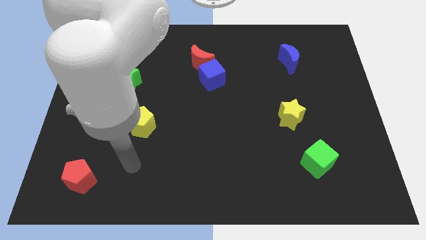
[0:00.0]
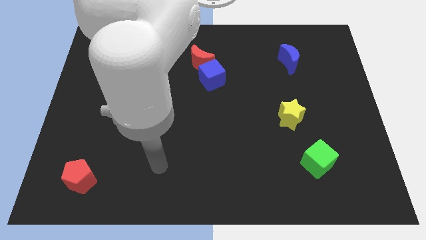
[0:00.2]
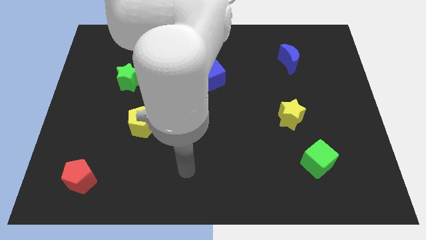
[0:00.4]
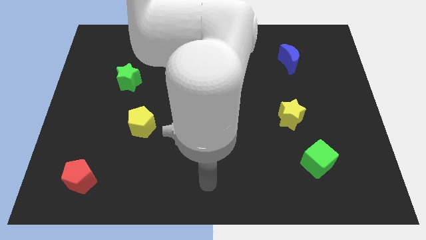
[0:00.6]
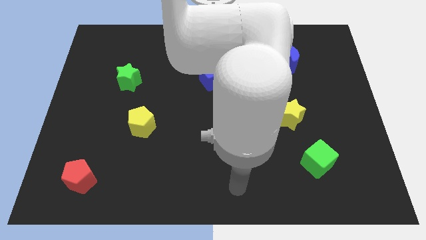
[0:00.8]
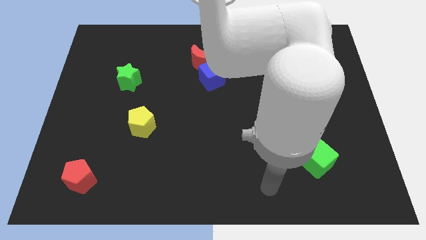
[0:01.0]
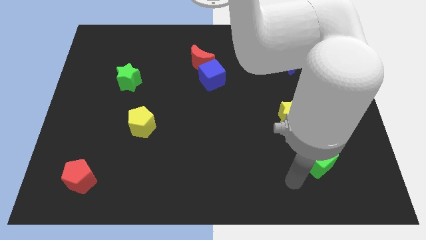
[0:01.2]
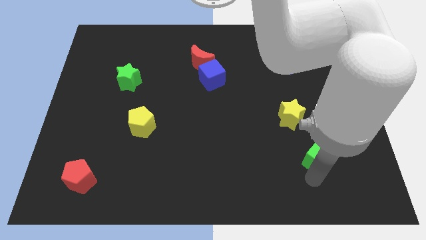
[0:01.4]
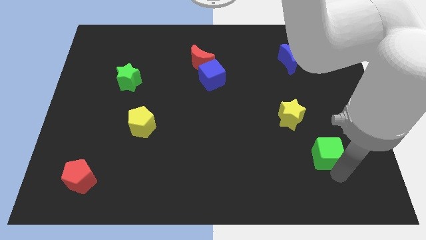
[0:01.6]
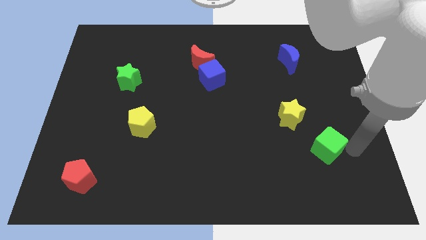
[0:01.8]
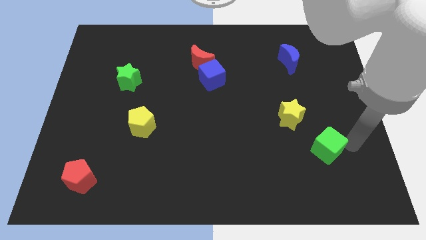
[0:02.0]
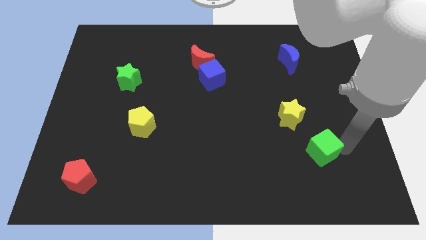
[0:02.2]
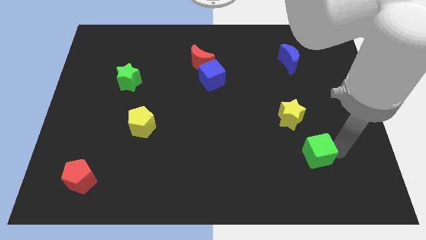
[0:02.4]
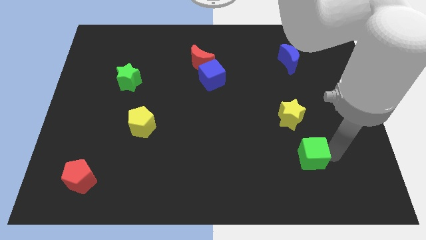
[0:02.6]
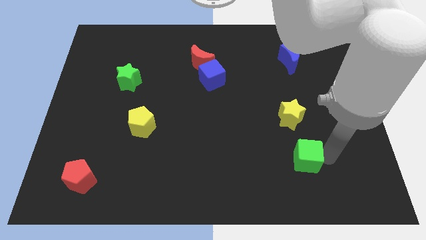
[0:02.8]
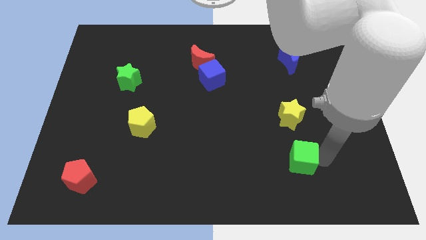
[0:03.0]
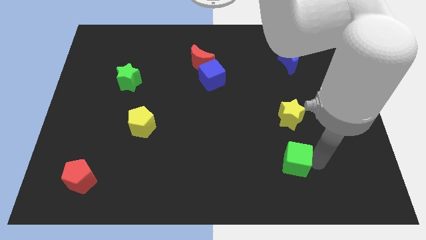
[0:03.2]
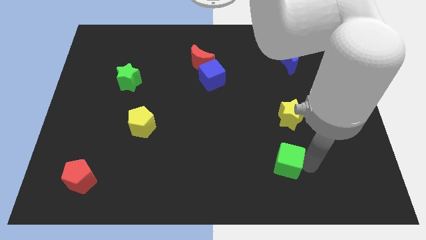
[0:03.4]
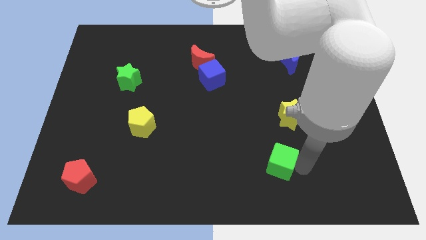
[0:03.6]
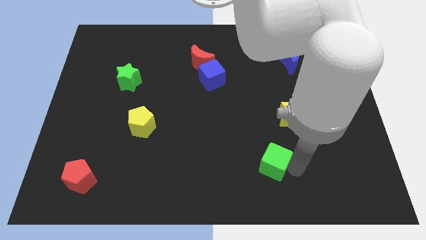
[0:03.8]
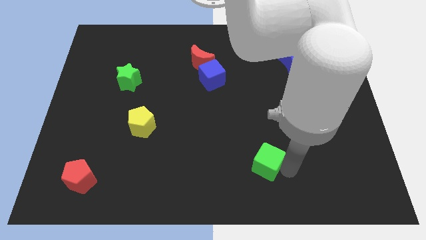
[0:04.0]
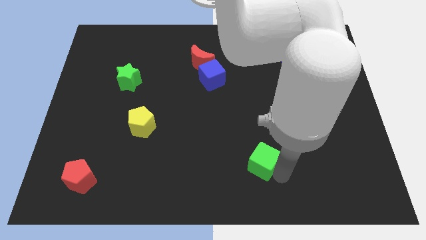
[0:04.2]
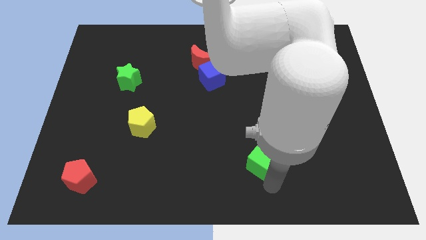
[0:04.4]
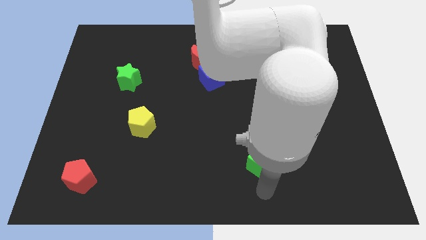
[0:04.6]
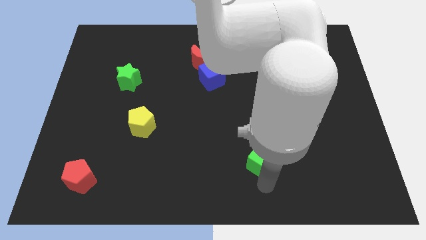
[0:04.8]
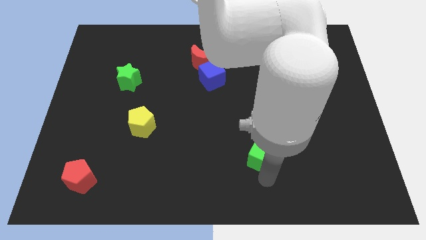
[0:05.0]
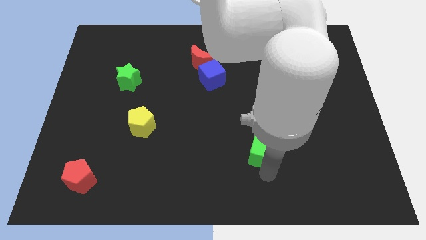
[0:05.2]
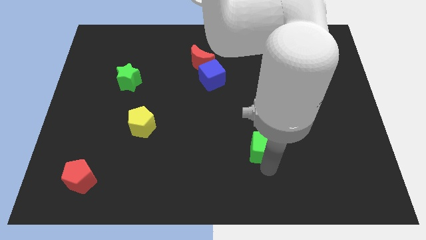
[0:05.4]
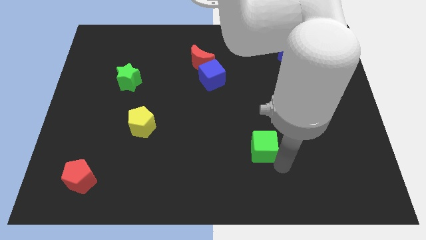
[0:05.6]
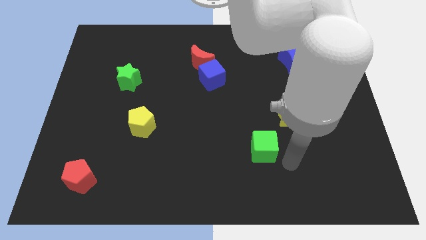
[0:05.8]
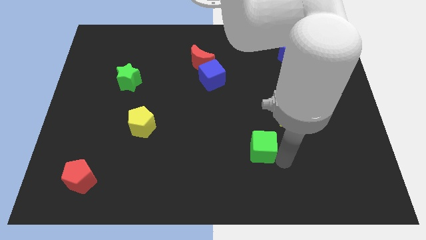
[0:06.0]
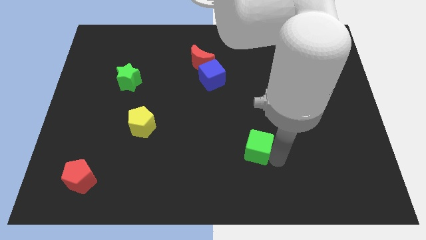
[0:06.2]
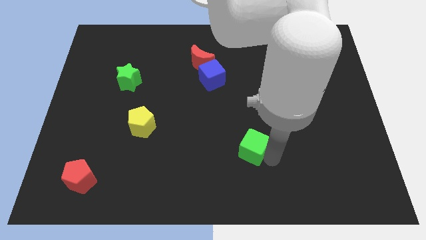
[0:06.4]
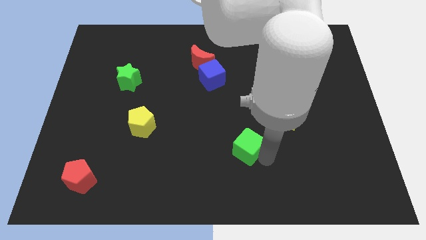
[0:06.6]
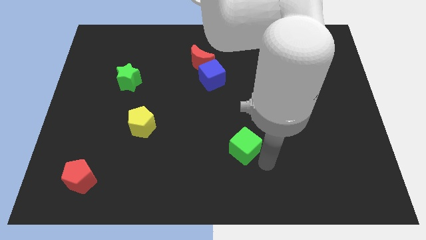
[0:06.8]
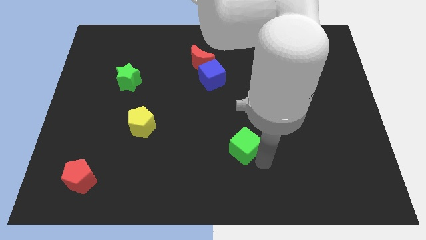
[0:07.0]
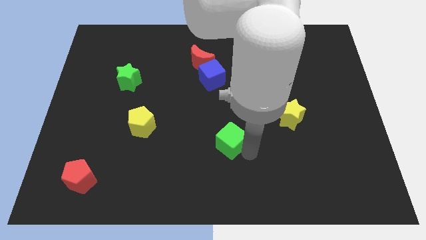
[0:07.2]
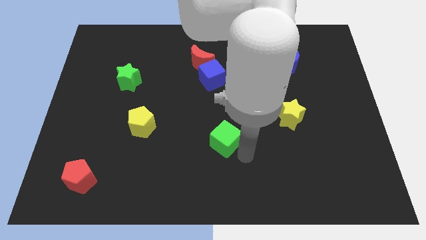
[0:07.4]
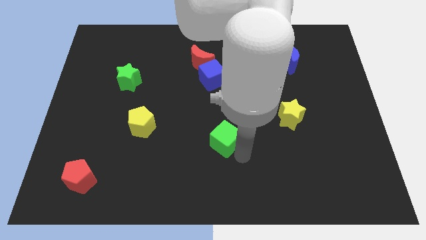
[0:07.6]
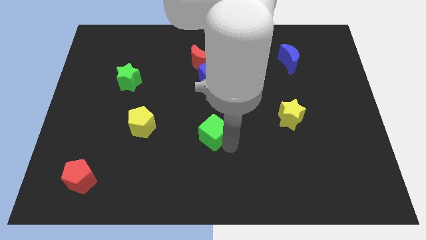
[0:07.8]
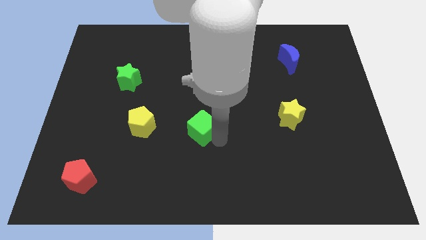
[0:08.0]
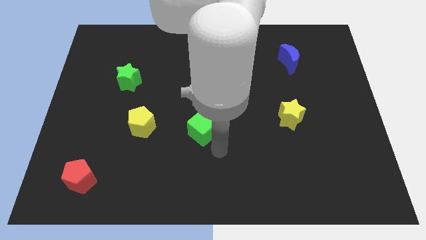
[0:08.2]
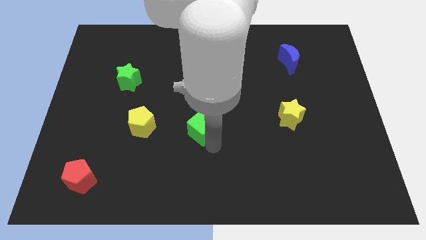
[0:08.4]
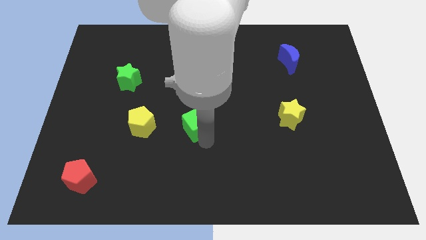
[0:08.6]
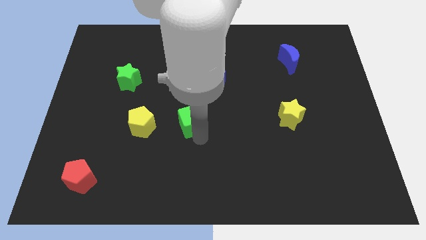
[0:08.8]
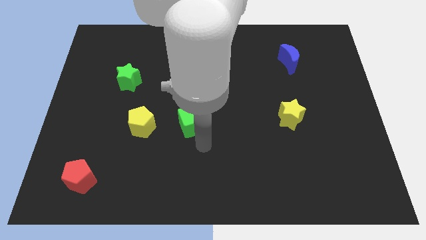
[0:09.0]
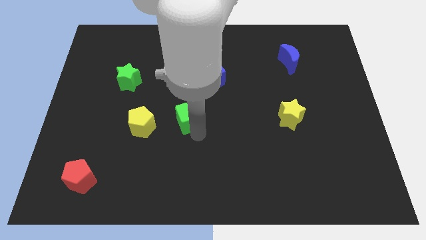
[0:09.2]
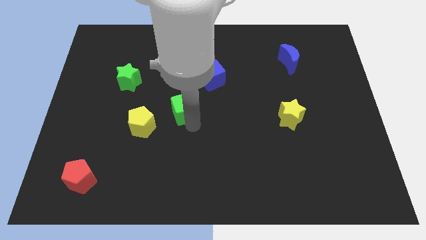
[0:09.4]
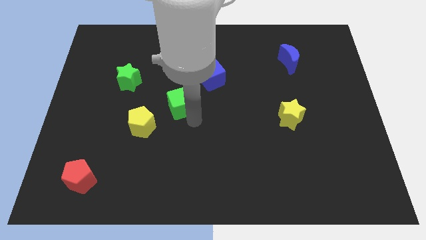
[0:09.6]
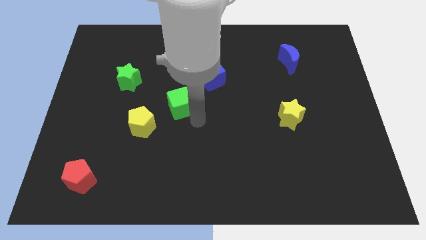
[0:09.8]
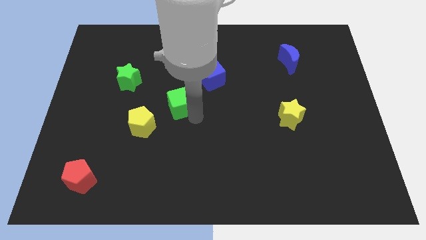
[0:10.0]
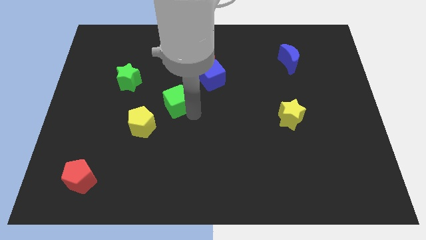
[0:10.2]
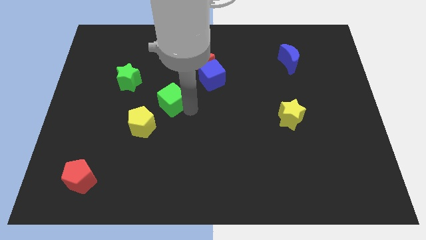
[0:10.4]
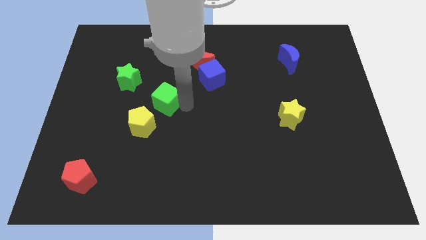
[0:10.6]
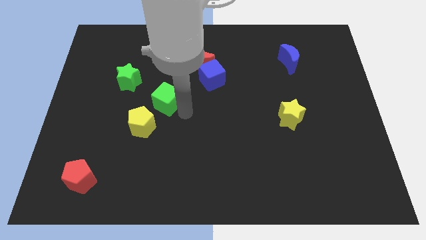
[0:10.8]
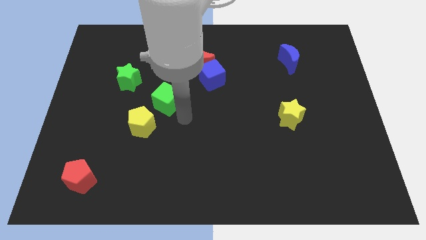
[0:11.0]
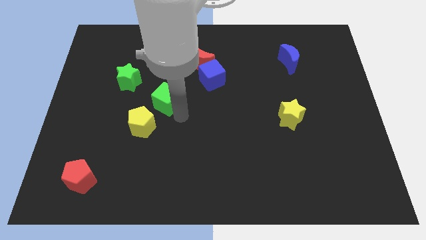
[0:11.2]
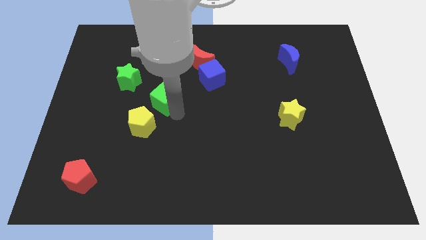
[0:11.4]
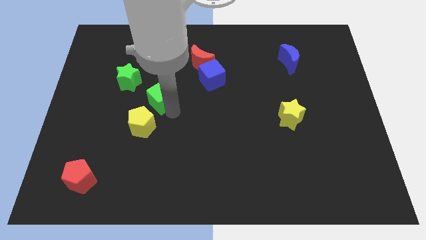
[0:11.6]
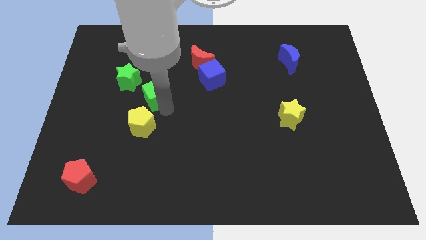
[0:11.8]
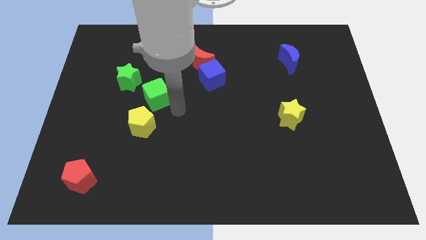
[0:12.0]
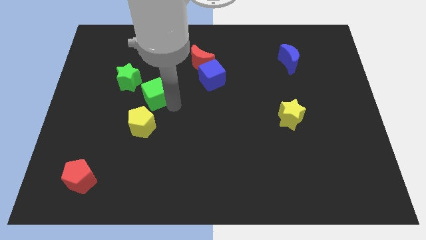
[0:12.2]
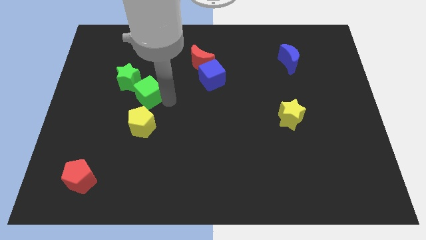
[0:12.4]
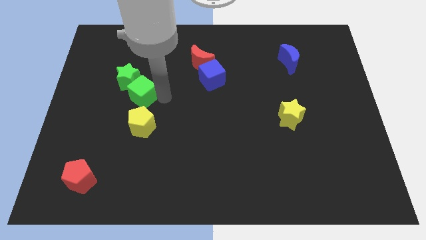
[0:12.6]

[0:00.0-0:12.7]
slide the green cube towards the green star
